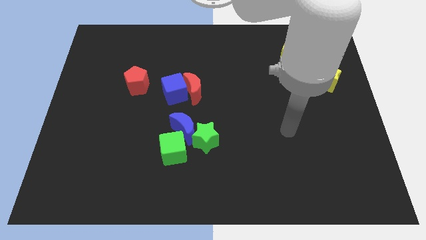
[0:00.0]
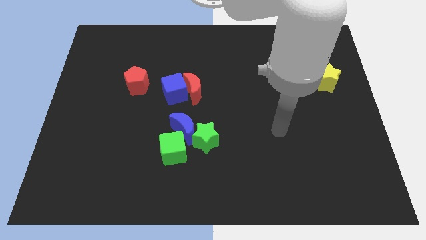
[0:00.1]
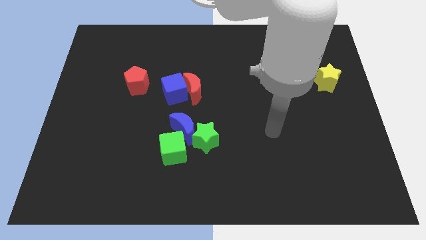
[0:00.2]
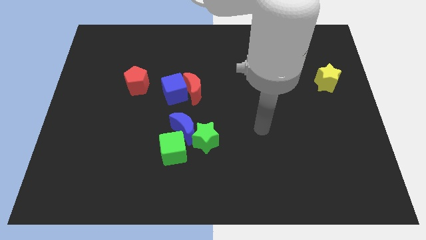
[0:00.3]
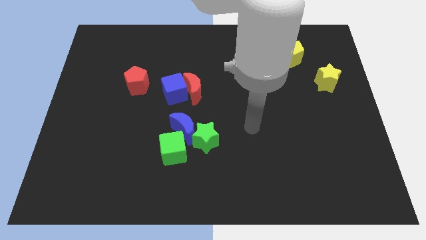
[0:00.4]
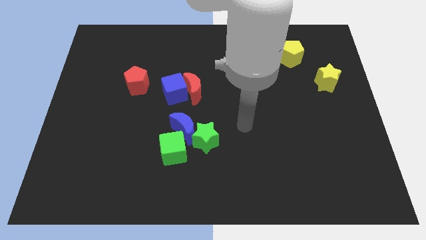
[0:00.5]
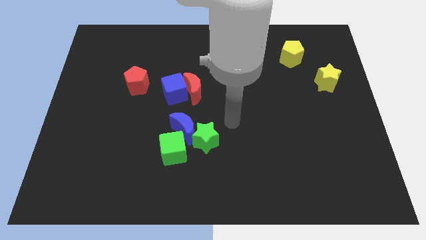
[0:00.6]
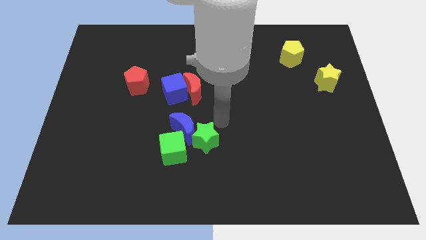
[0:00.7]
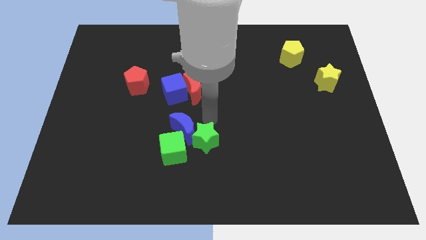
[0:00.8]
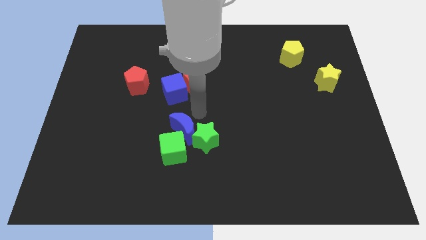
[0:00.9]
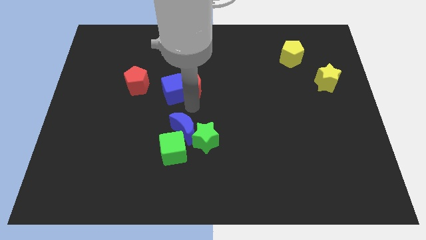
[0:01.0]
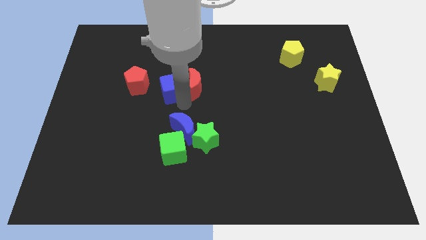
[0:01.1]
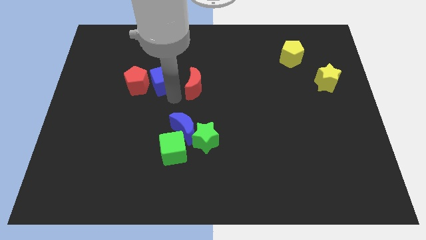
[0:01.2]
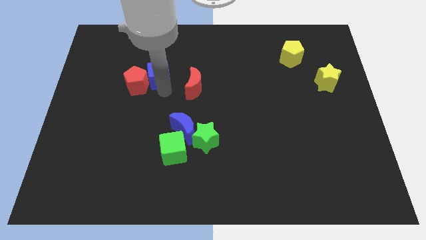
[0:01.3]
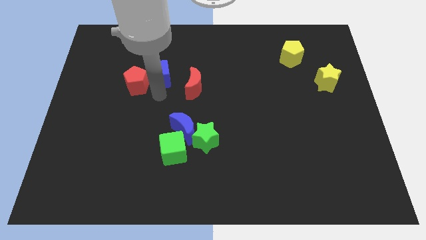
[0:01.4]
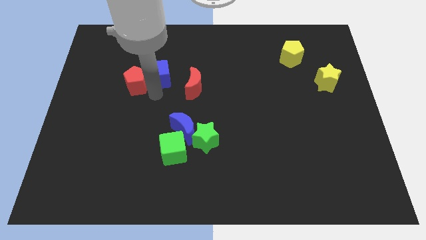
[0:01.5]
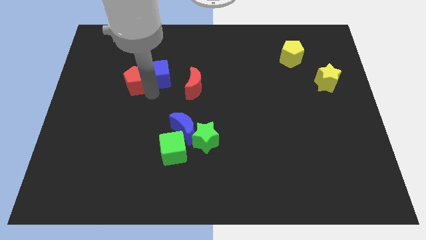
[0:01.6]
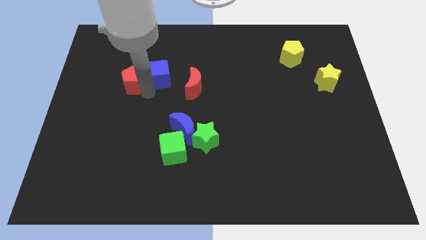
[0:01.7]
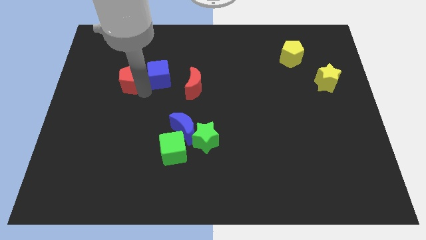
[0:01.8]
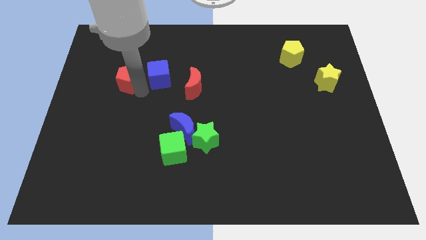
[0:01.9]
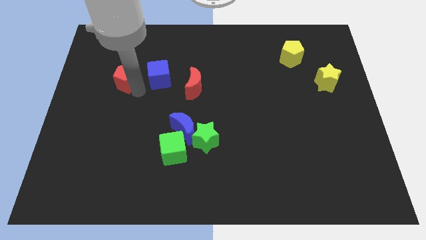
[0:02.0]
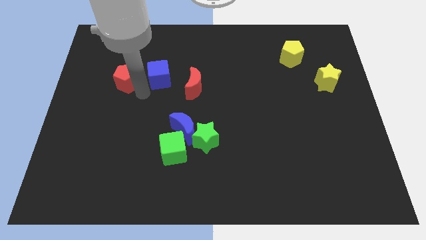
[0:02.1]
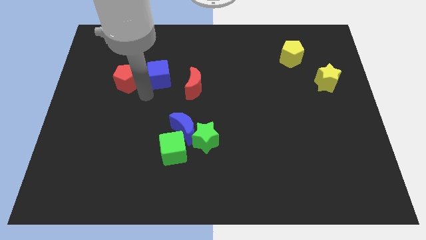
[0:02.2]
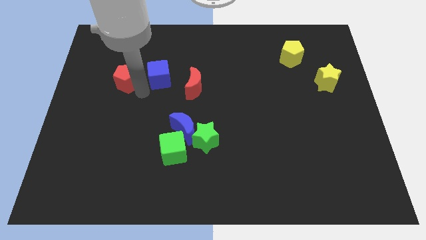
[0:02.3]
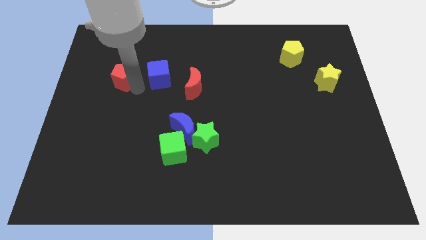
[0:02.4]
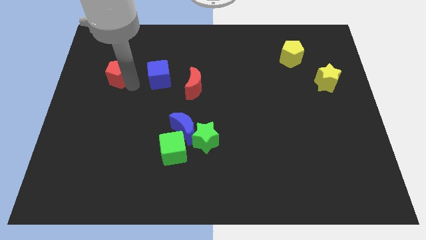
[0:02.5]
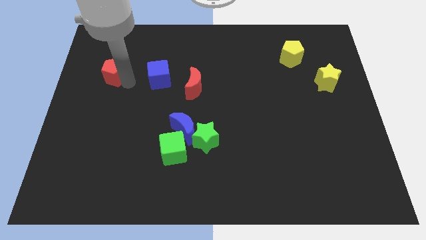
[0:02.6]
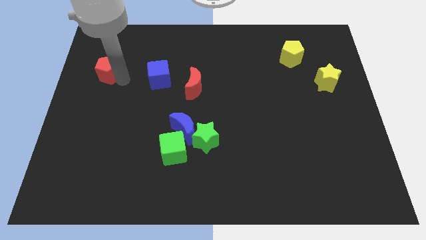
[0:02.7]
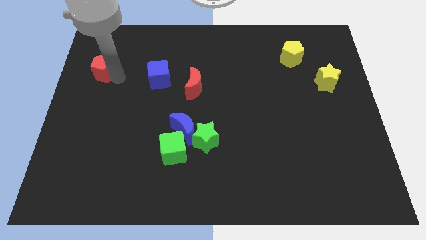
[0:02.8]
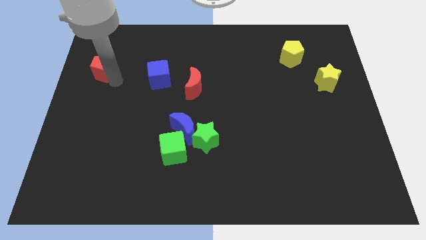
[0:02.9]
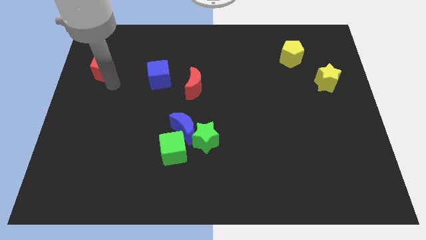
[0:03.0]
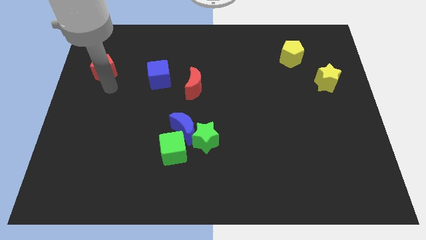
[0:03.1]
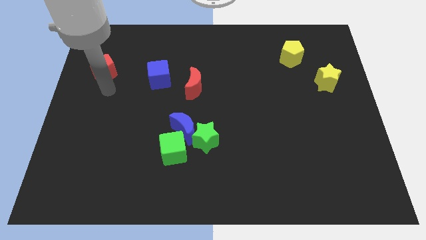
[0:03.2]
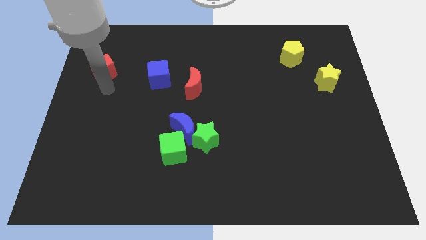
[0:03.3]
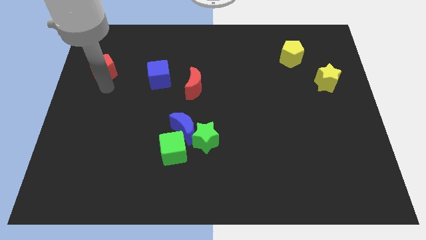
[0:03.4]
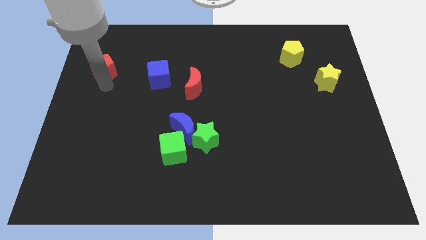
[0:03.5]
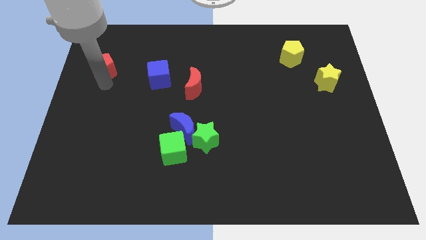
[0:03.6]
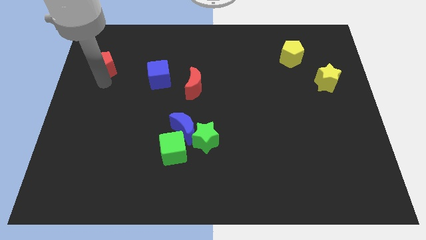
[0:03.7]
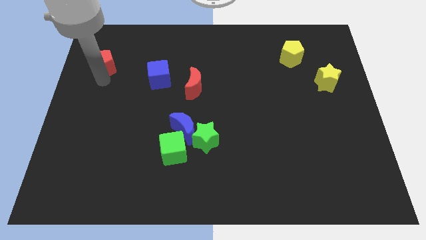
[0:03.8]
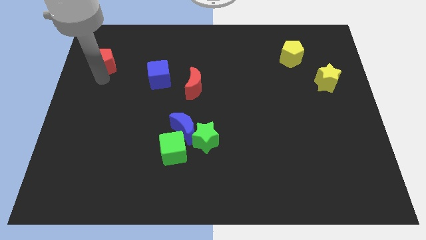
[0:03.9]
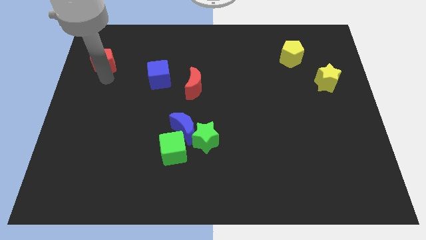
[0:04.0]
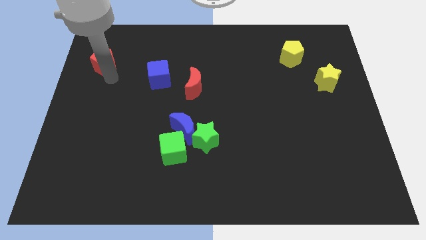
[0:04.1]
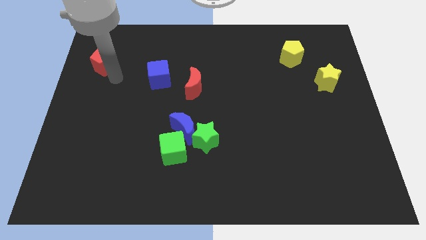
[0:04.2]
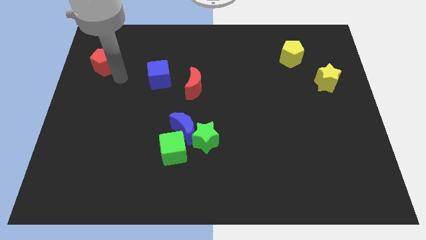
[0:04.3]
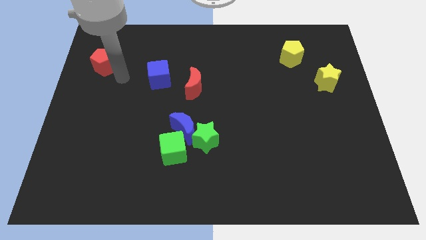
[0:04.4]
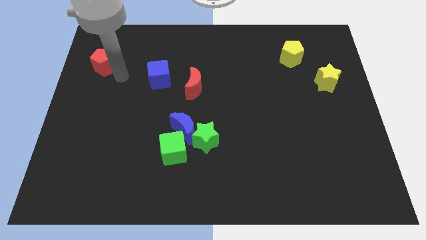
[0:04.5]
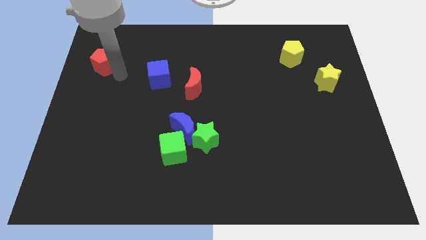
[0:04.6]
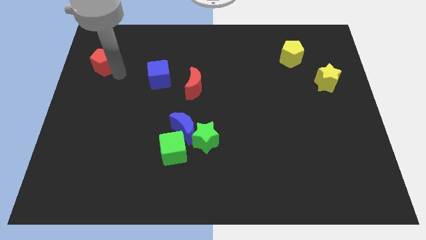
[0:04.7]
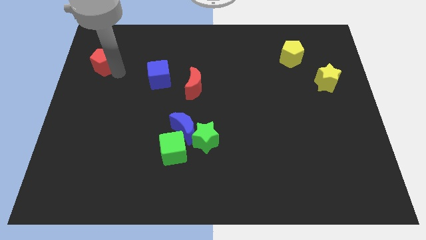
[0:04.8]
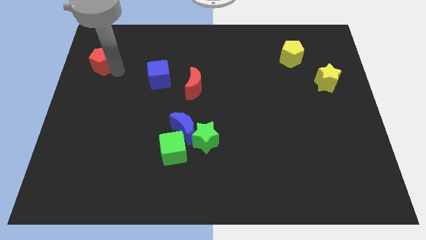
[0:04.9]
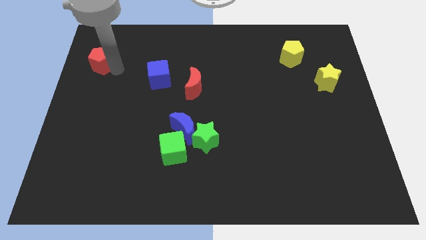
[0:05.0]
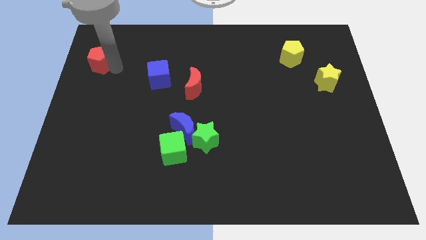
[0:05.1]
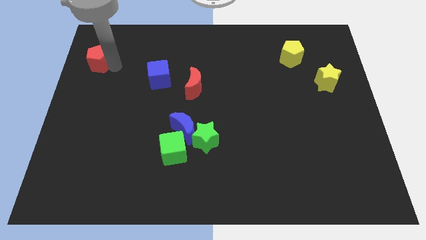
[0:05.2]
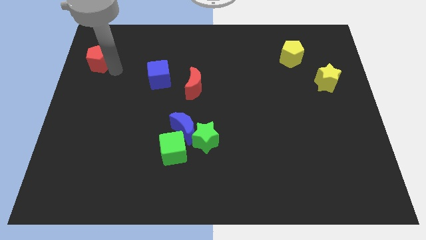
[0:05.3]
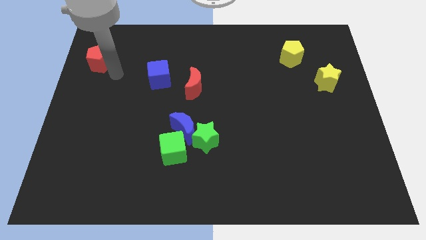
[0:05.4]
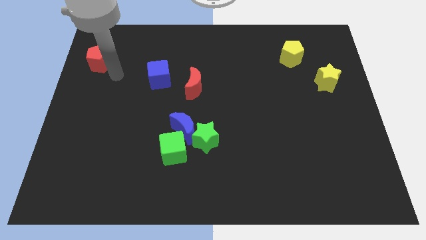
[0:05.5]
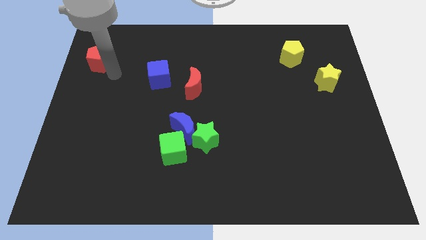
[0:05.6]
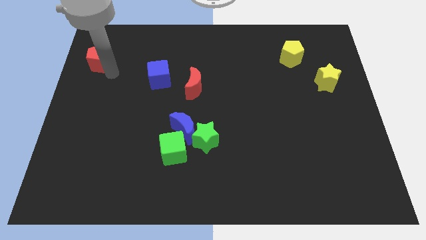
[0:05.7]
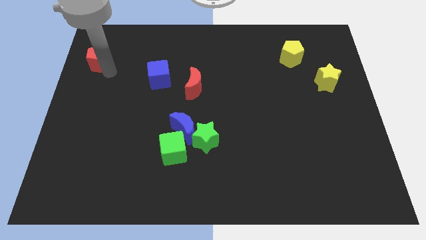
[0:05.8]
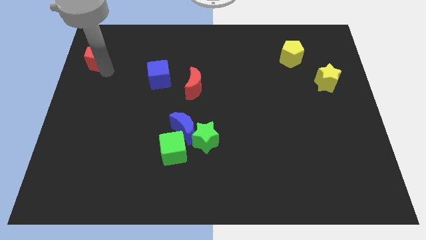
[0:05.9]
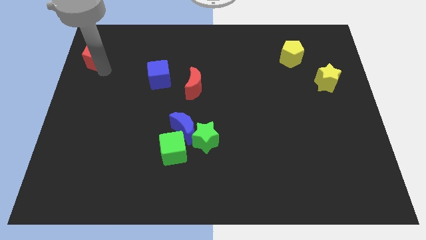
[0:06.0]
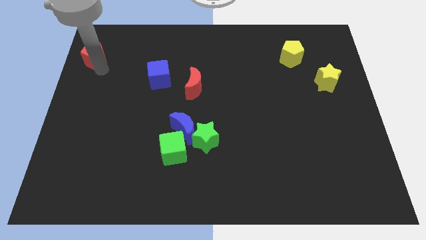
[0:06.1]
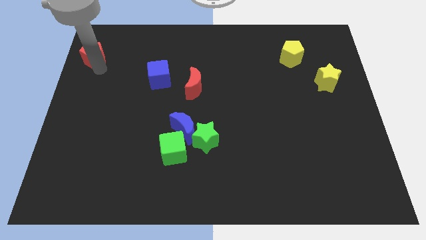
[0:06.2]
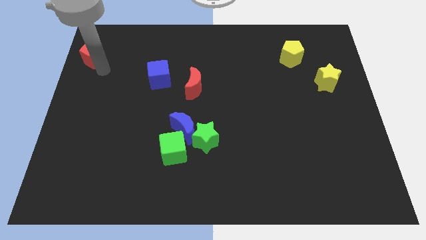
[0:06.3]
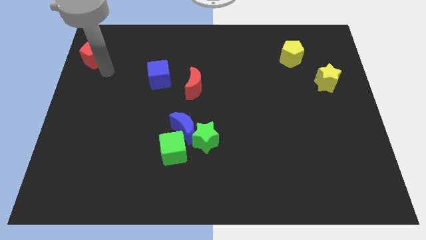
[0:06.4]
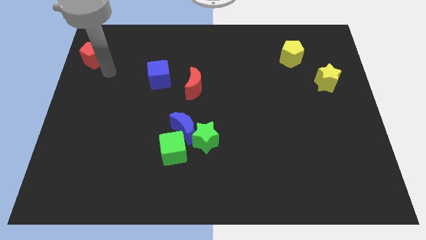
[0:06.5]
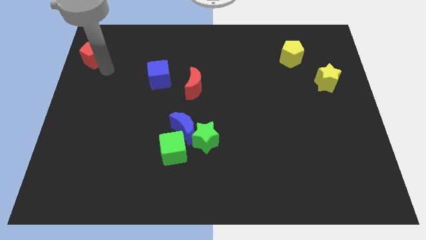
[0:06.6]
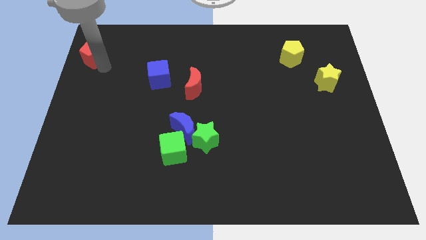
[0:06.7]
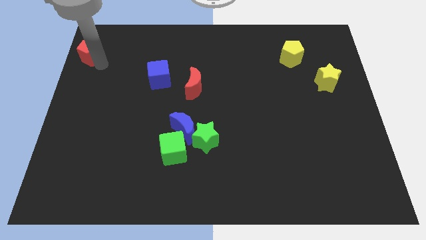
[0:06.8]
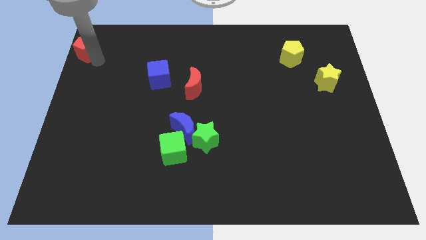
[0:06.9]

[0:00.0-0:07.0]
slide the red pentagon to the upper left corner
